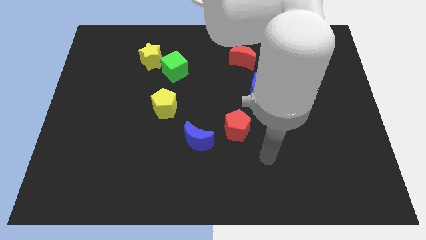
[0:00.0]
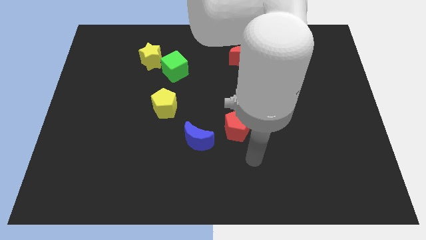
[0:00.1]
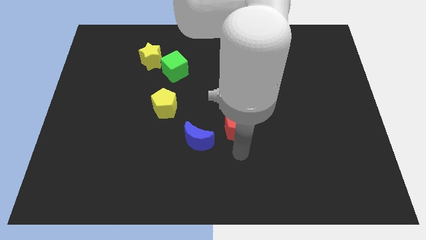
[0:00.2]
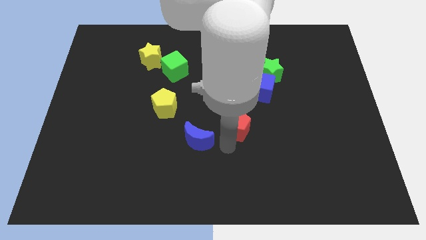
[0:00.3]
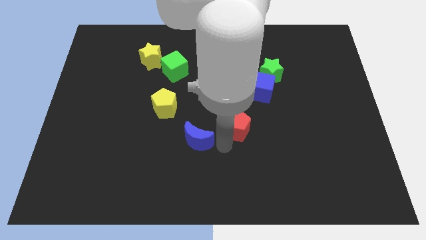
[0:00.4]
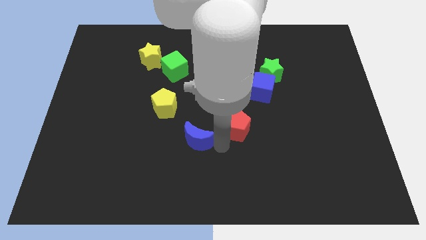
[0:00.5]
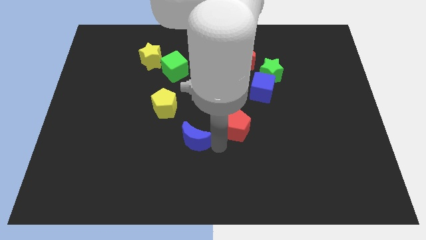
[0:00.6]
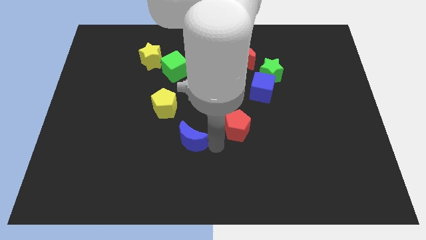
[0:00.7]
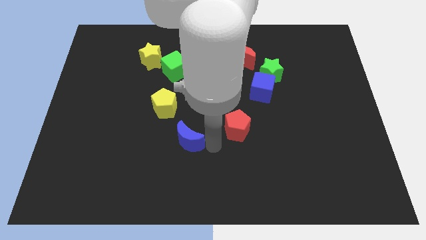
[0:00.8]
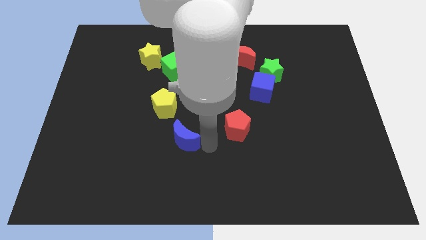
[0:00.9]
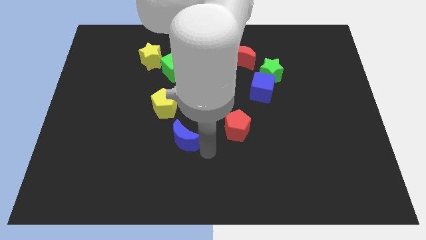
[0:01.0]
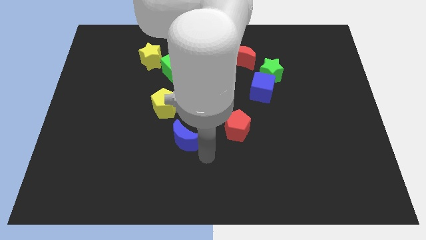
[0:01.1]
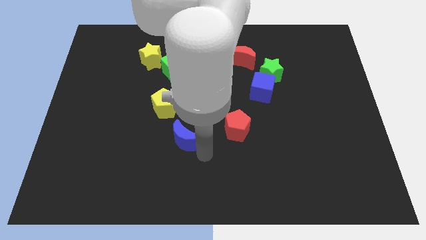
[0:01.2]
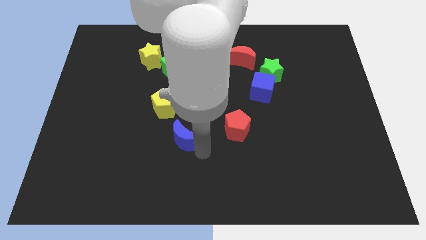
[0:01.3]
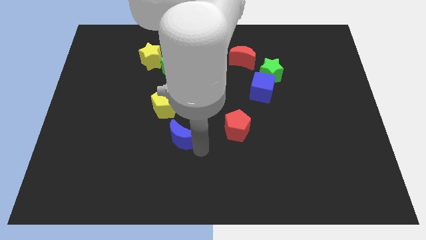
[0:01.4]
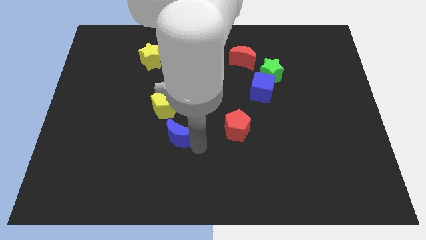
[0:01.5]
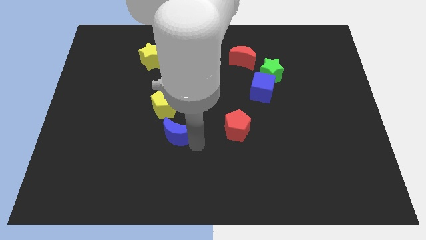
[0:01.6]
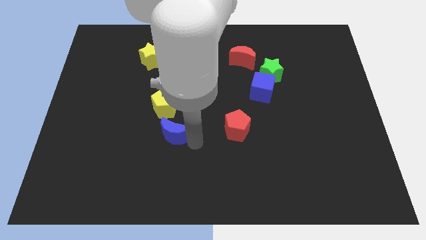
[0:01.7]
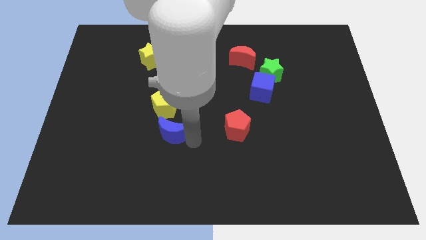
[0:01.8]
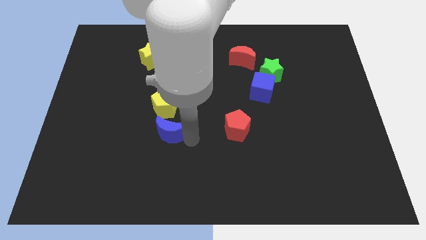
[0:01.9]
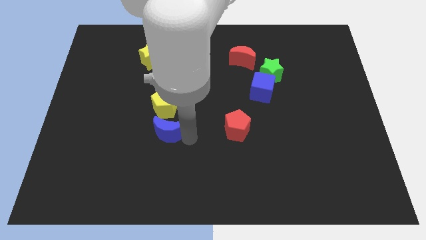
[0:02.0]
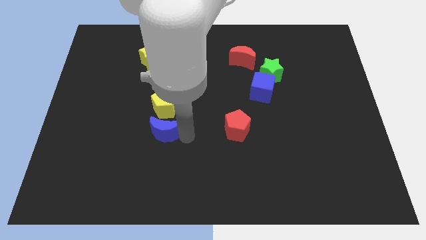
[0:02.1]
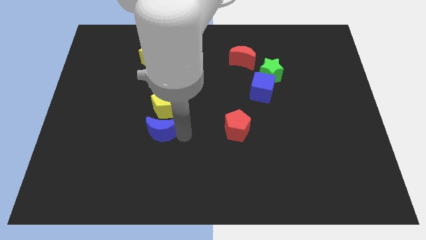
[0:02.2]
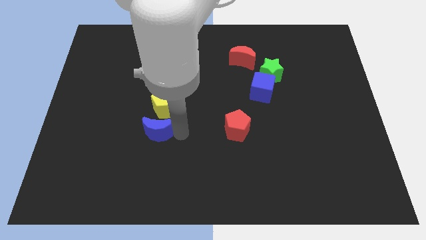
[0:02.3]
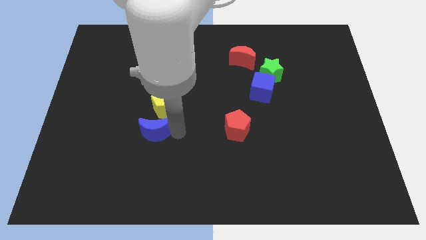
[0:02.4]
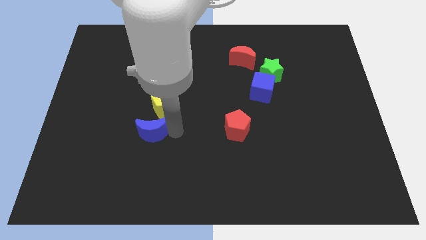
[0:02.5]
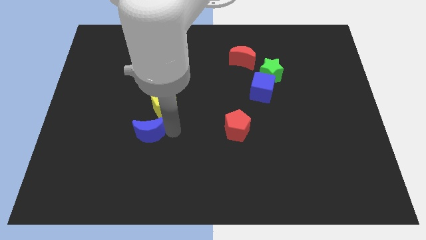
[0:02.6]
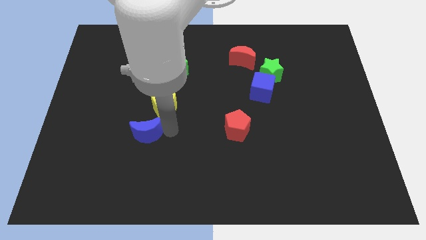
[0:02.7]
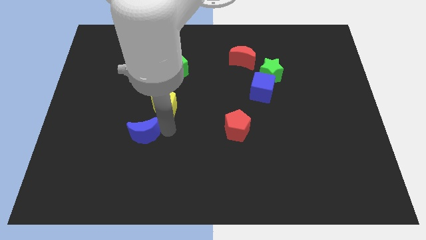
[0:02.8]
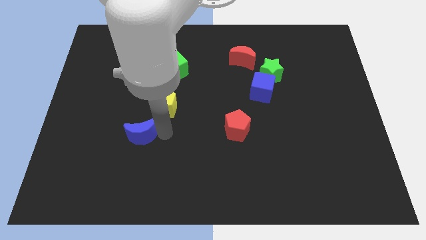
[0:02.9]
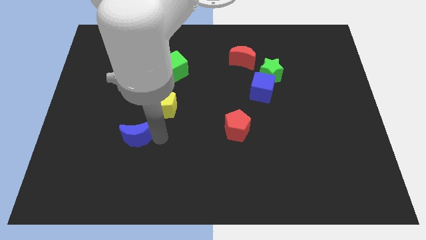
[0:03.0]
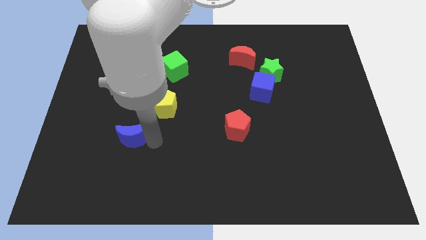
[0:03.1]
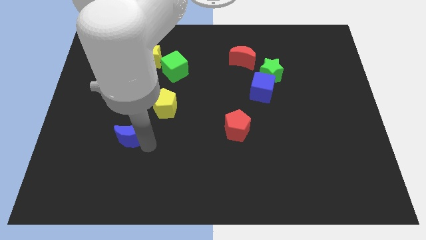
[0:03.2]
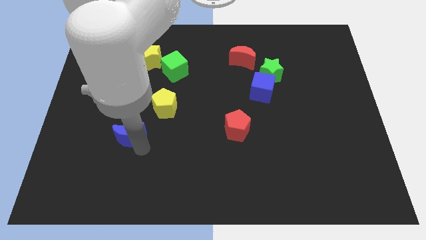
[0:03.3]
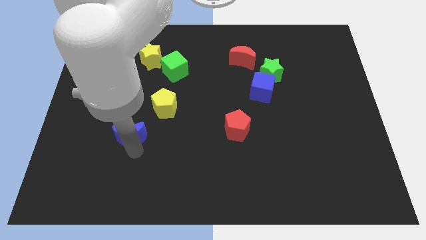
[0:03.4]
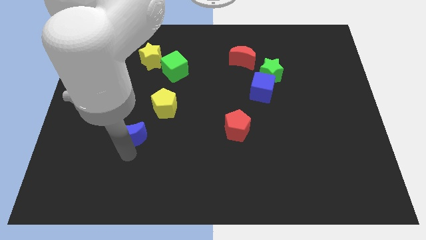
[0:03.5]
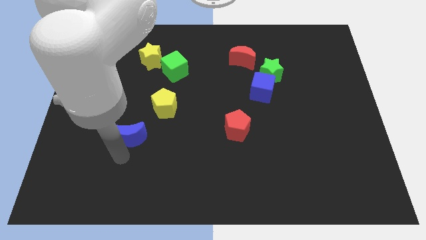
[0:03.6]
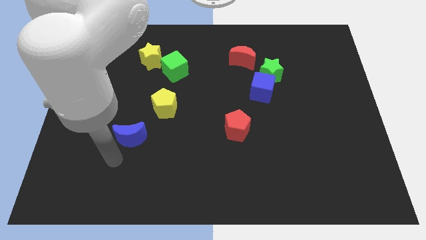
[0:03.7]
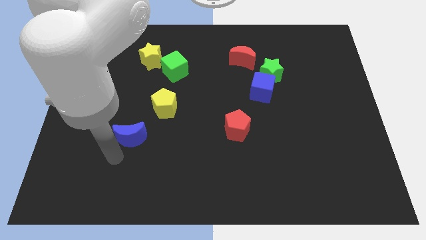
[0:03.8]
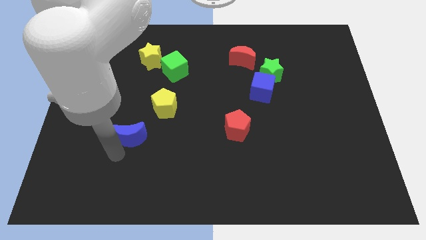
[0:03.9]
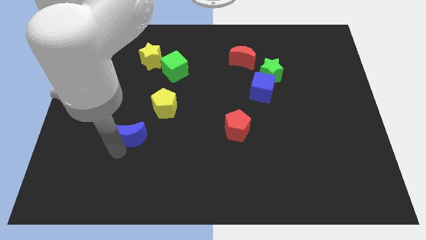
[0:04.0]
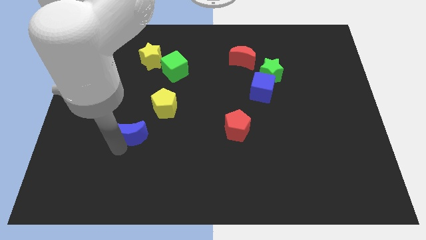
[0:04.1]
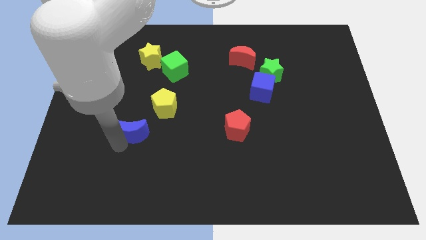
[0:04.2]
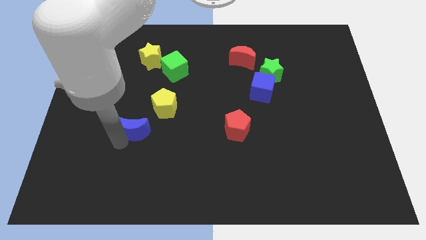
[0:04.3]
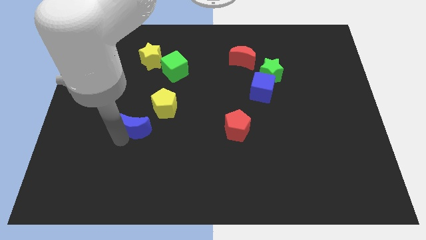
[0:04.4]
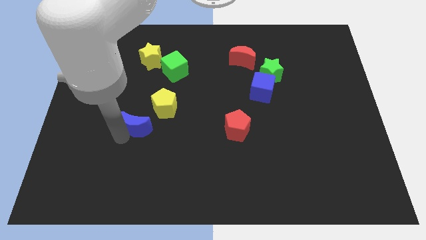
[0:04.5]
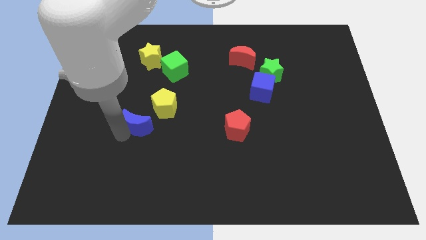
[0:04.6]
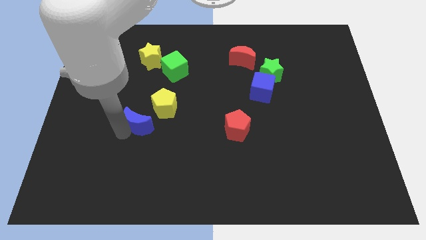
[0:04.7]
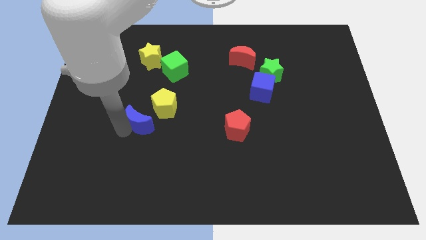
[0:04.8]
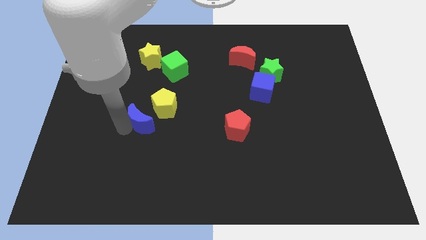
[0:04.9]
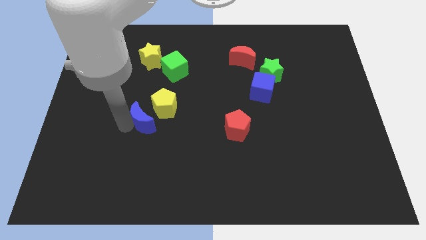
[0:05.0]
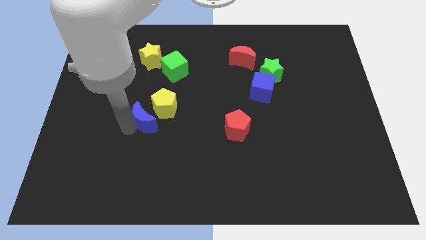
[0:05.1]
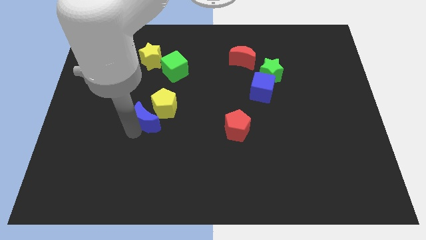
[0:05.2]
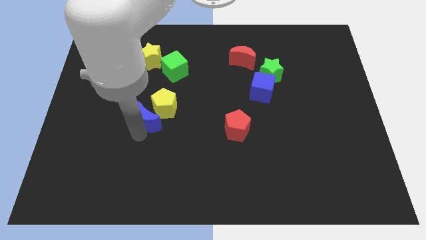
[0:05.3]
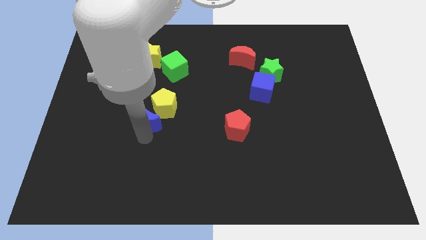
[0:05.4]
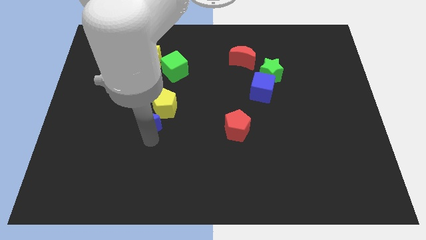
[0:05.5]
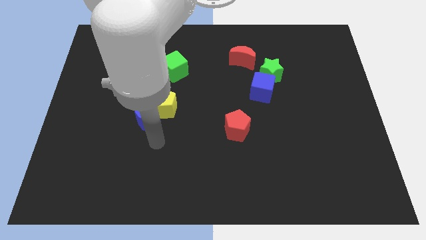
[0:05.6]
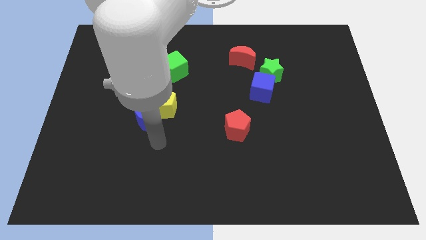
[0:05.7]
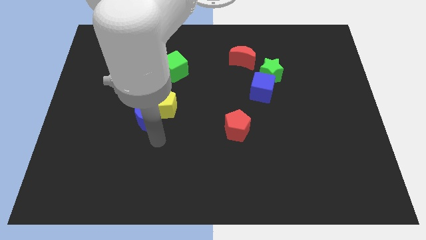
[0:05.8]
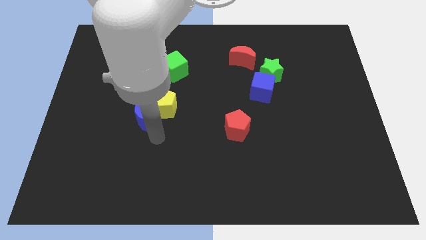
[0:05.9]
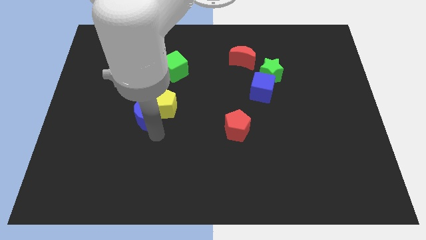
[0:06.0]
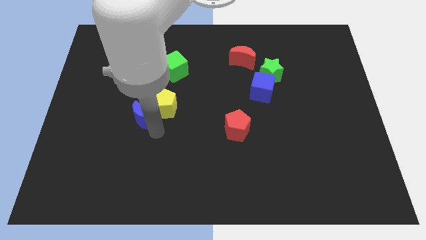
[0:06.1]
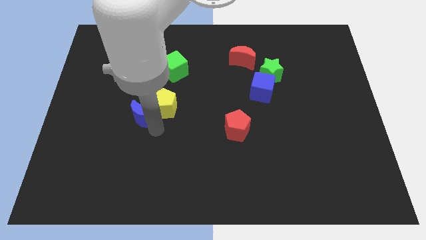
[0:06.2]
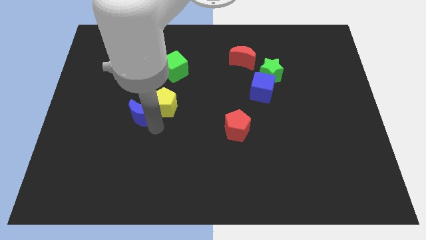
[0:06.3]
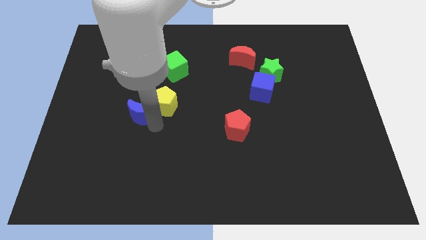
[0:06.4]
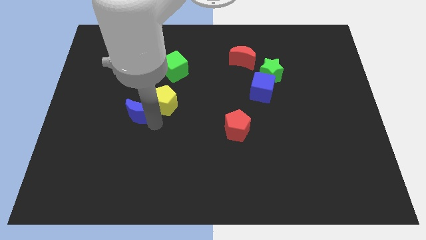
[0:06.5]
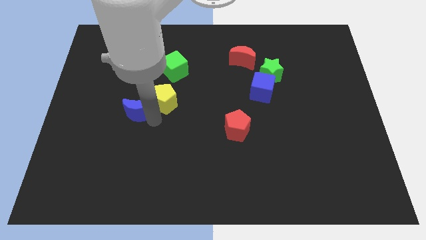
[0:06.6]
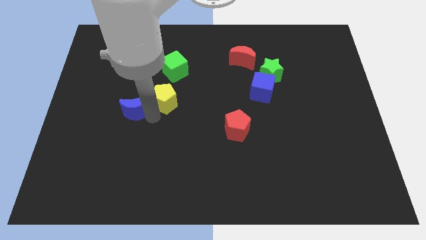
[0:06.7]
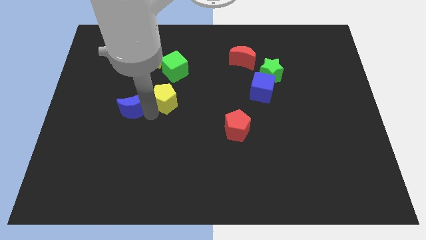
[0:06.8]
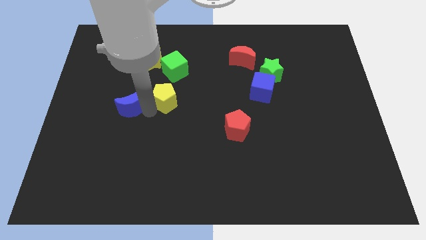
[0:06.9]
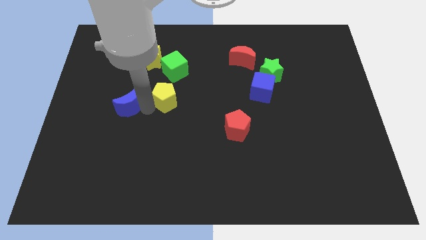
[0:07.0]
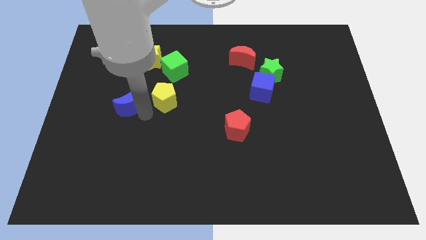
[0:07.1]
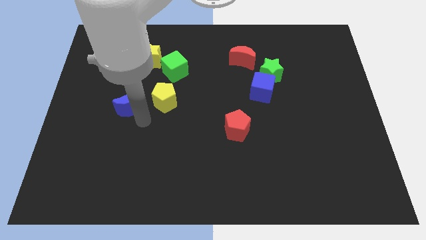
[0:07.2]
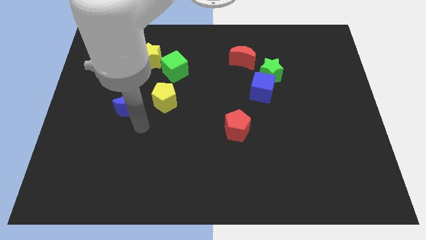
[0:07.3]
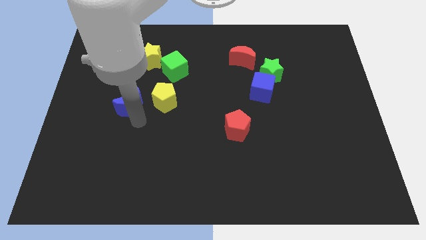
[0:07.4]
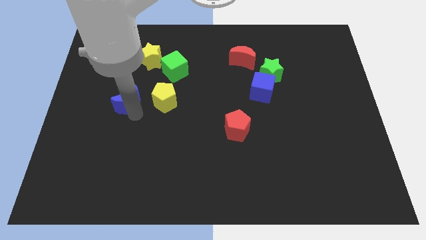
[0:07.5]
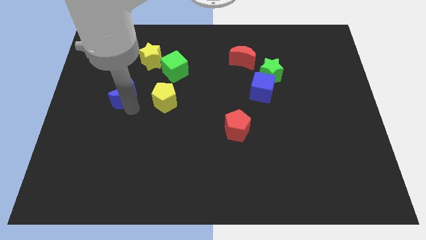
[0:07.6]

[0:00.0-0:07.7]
move the blue moon up and left

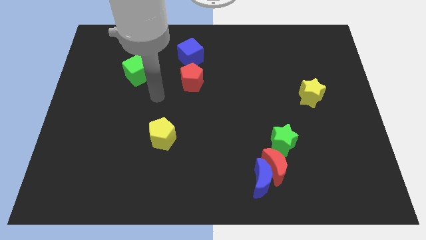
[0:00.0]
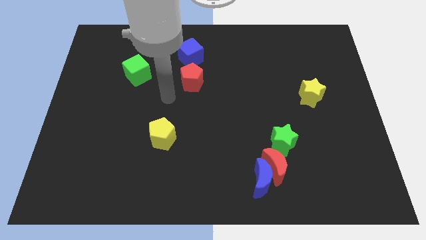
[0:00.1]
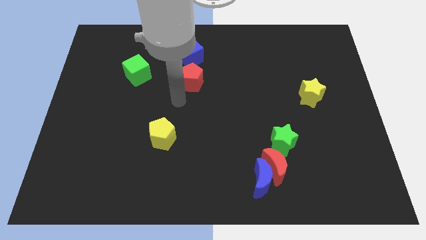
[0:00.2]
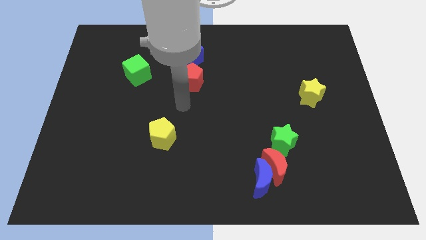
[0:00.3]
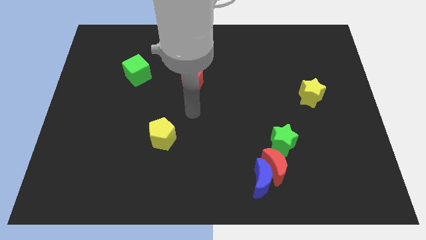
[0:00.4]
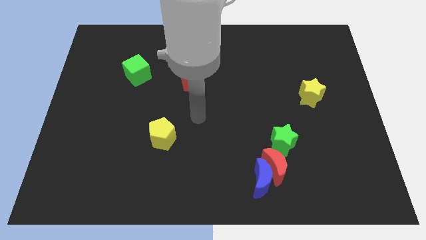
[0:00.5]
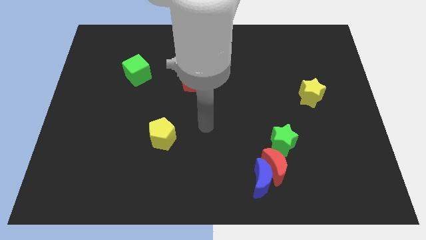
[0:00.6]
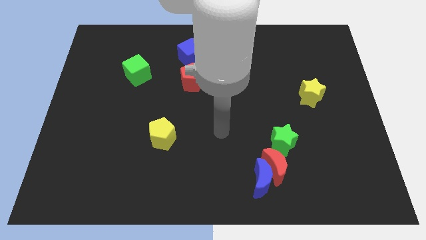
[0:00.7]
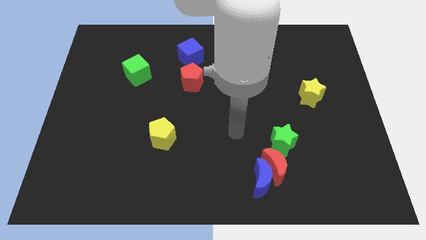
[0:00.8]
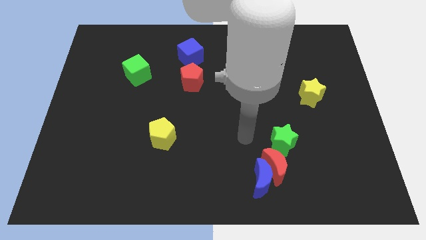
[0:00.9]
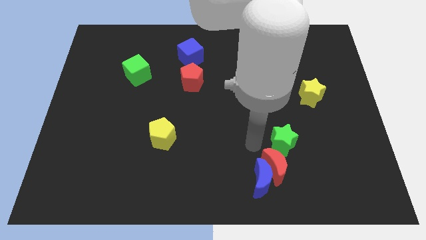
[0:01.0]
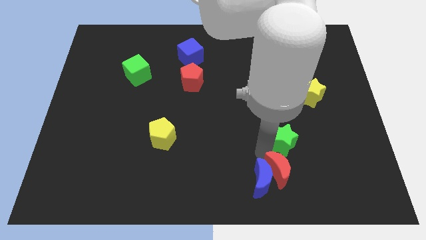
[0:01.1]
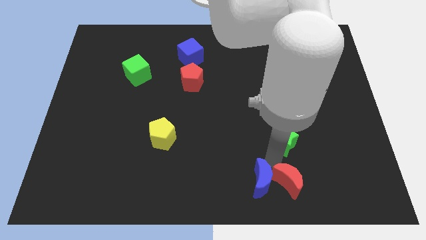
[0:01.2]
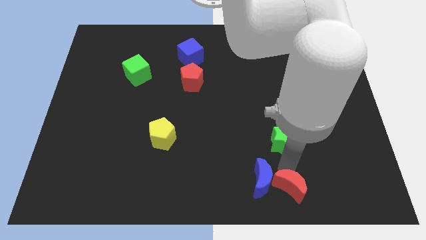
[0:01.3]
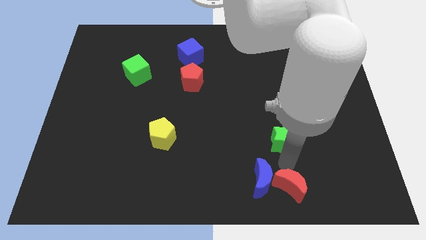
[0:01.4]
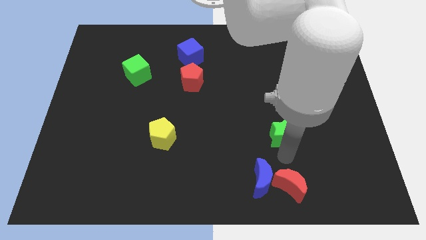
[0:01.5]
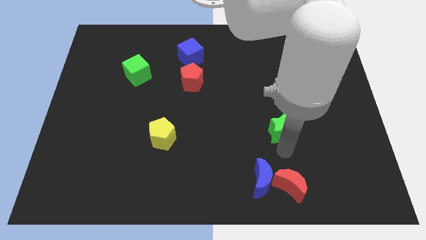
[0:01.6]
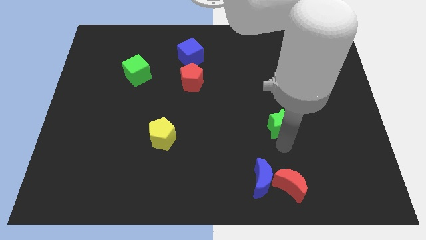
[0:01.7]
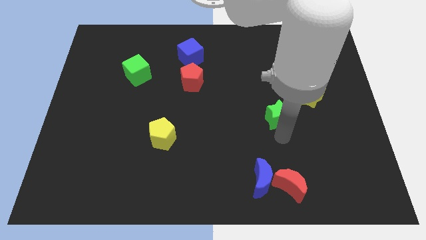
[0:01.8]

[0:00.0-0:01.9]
move the green star a little upwards
